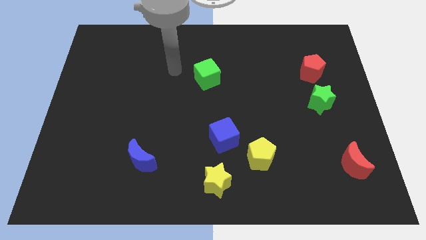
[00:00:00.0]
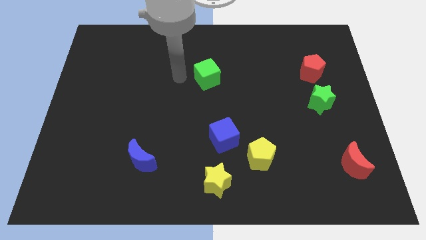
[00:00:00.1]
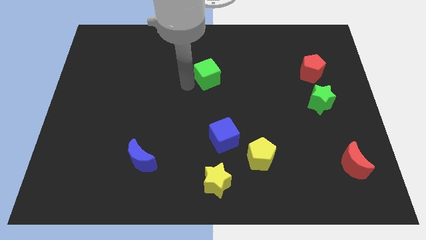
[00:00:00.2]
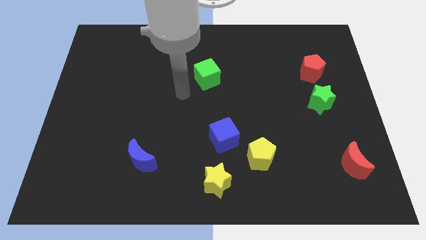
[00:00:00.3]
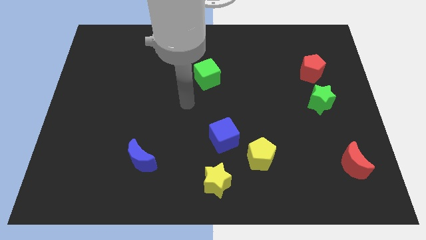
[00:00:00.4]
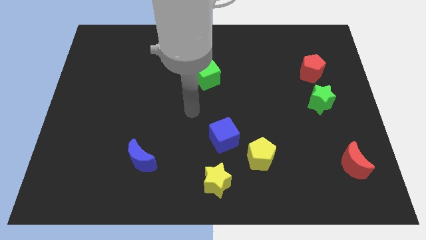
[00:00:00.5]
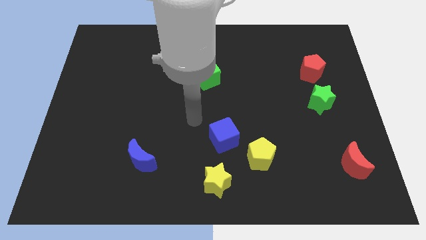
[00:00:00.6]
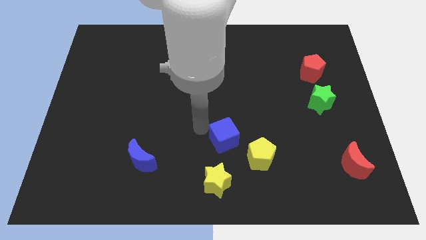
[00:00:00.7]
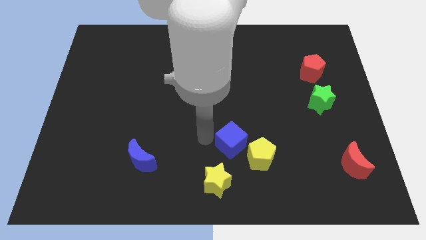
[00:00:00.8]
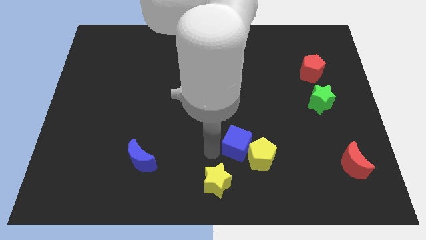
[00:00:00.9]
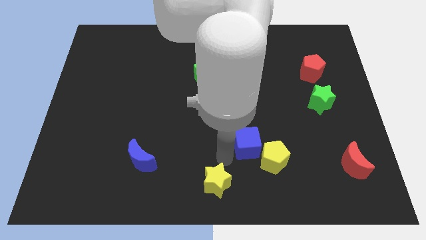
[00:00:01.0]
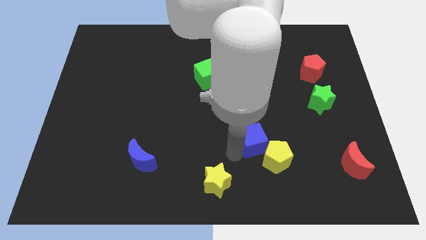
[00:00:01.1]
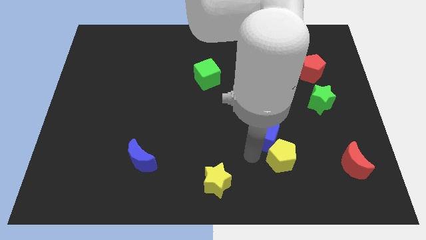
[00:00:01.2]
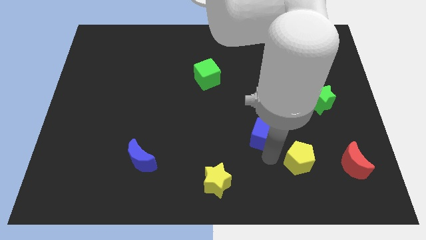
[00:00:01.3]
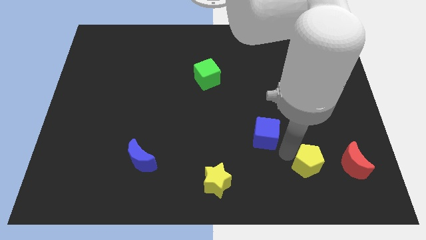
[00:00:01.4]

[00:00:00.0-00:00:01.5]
pull the blue cube apart from the yellow pentagon

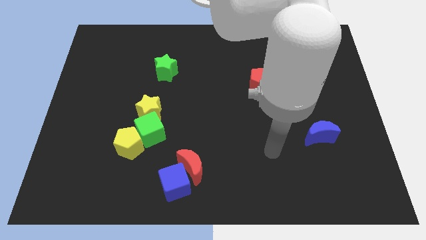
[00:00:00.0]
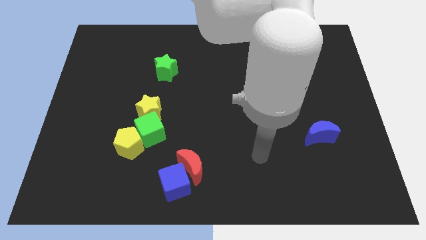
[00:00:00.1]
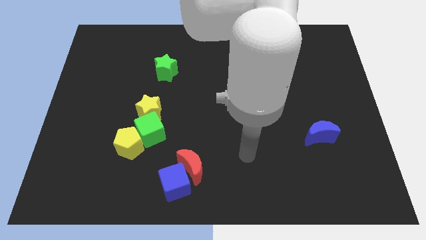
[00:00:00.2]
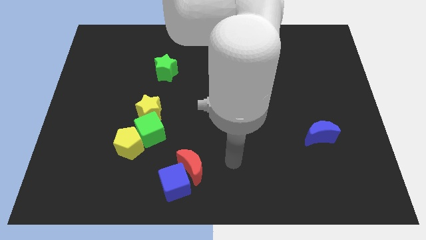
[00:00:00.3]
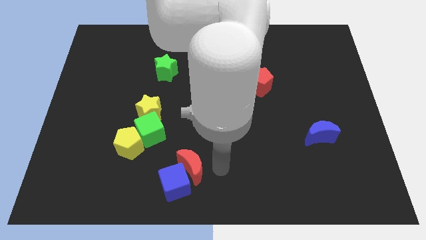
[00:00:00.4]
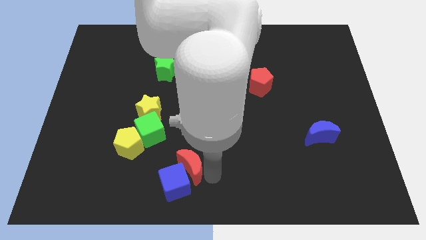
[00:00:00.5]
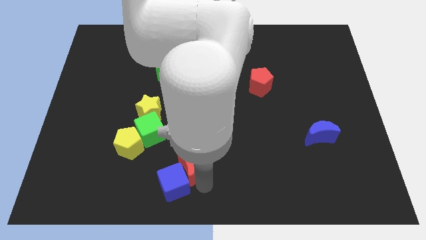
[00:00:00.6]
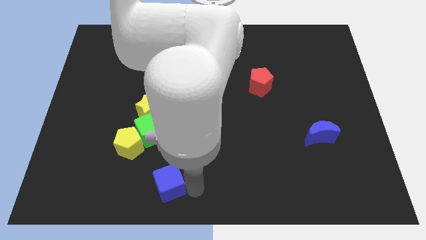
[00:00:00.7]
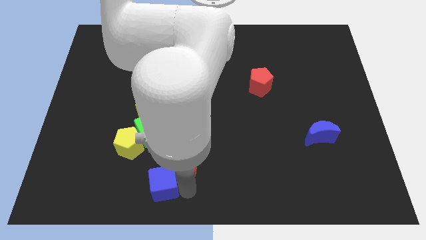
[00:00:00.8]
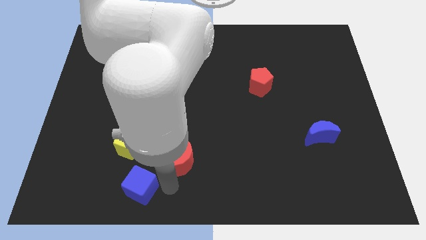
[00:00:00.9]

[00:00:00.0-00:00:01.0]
move the red moon away from the blue cube

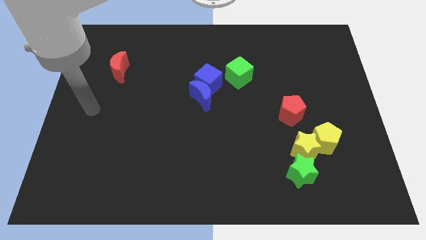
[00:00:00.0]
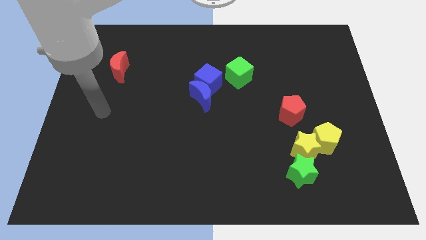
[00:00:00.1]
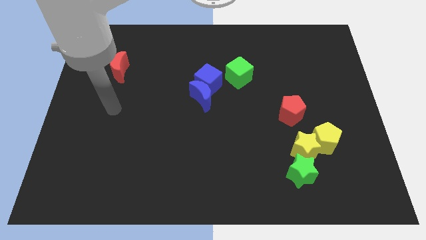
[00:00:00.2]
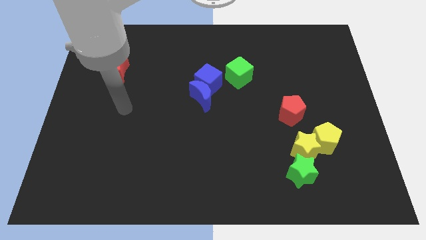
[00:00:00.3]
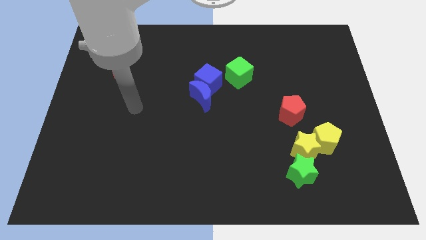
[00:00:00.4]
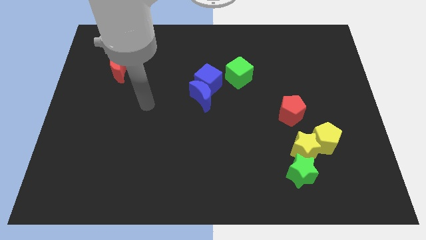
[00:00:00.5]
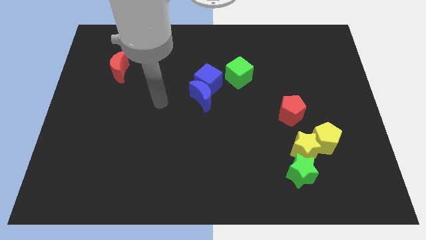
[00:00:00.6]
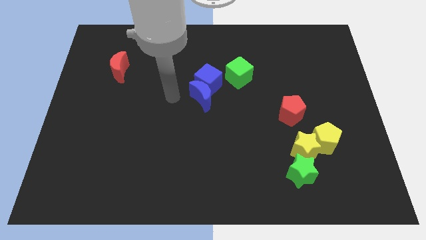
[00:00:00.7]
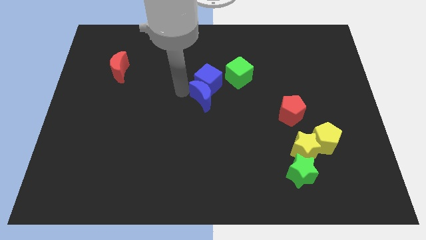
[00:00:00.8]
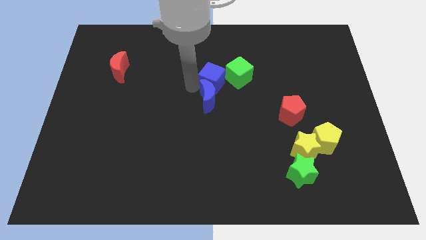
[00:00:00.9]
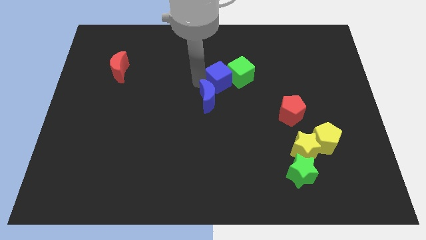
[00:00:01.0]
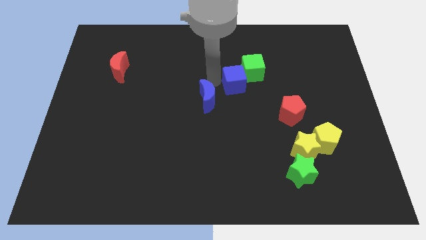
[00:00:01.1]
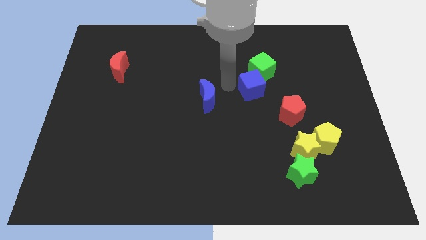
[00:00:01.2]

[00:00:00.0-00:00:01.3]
separate the blue moon from the blue cube

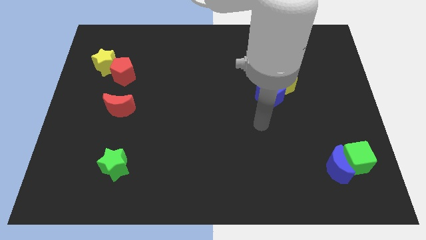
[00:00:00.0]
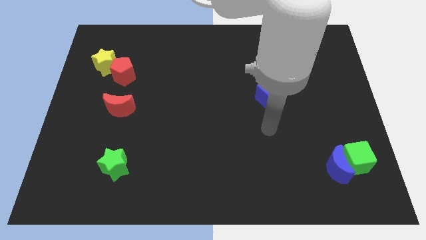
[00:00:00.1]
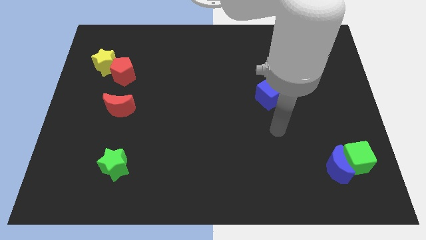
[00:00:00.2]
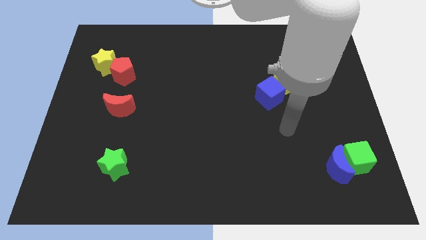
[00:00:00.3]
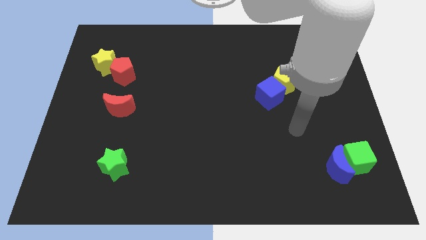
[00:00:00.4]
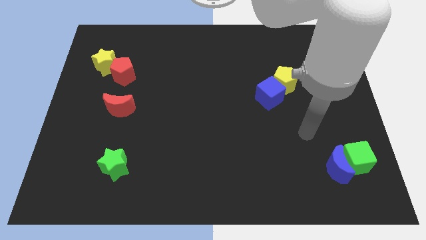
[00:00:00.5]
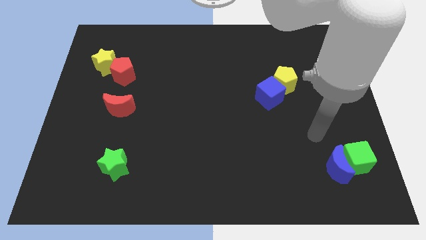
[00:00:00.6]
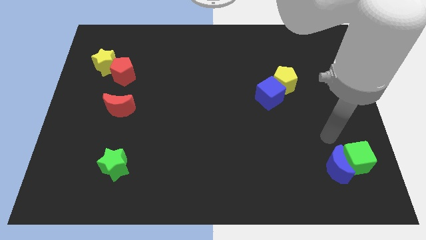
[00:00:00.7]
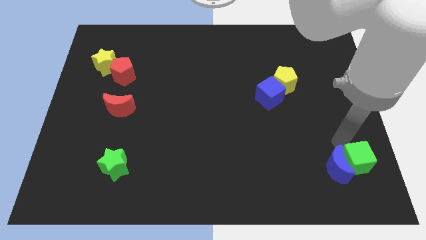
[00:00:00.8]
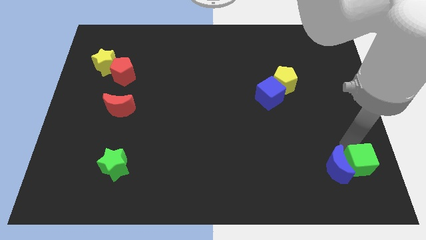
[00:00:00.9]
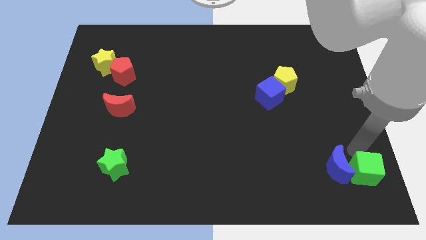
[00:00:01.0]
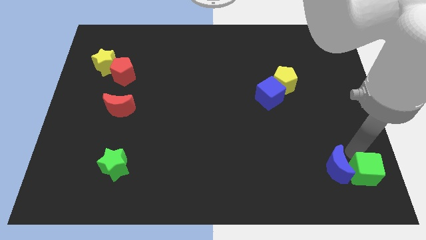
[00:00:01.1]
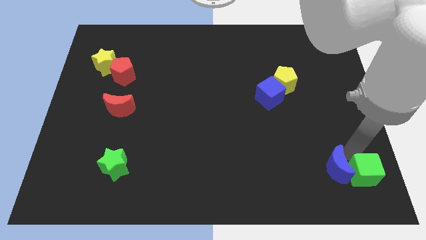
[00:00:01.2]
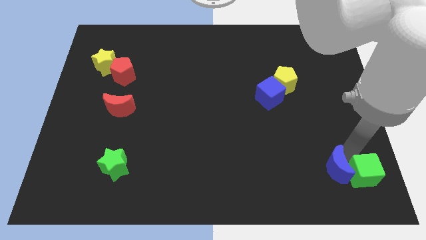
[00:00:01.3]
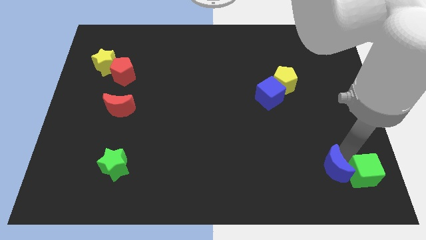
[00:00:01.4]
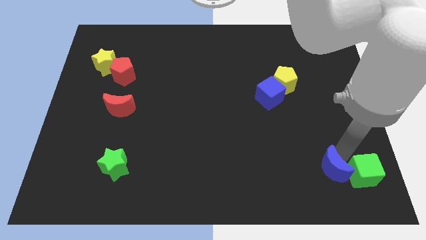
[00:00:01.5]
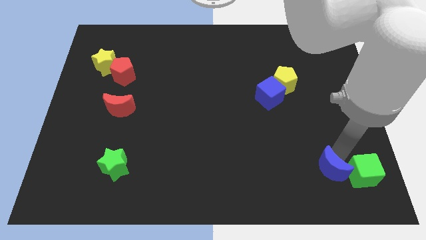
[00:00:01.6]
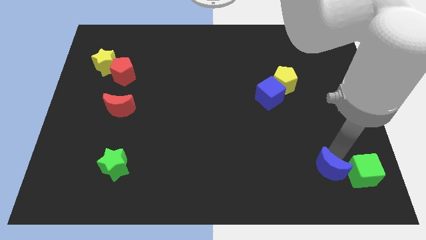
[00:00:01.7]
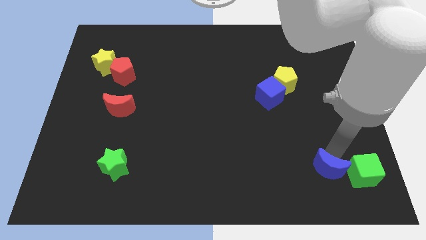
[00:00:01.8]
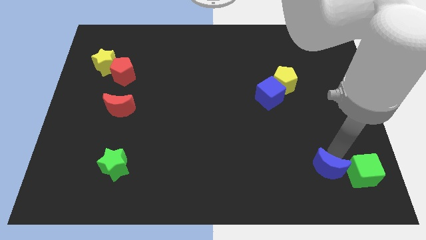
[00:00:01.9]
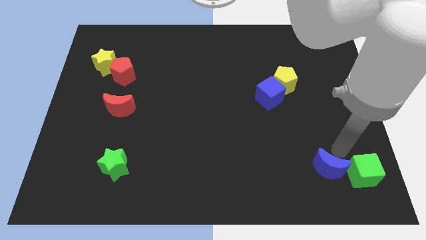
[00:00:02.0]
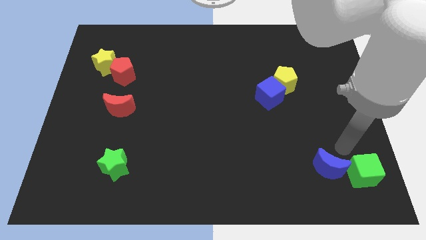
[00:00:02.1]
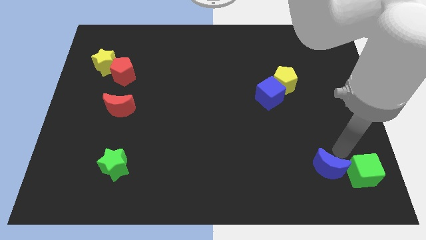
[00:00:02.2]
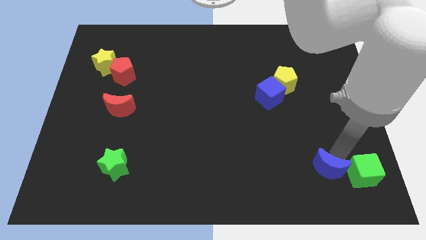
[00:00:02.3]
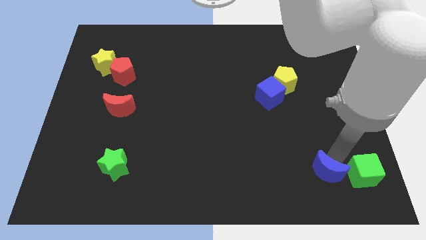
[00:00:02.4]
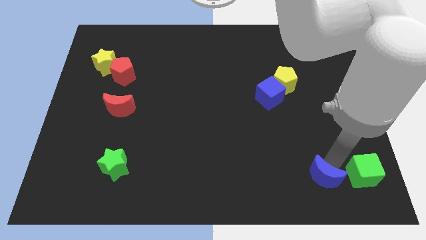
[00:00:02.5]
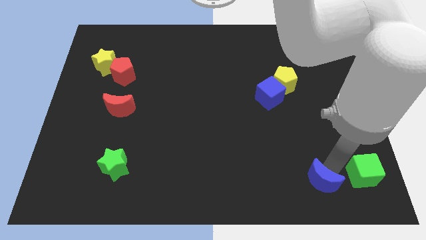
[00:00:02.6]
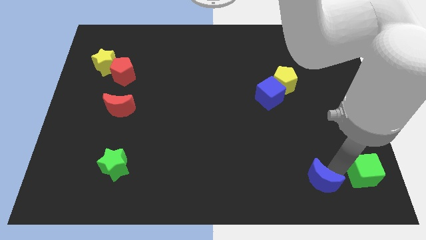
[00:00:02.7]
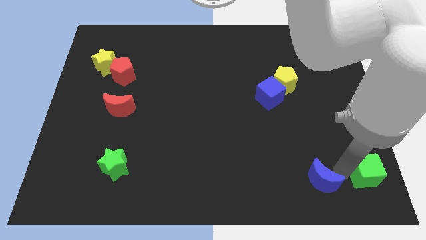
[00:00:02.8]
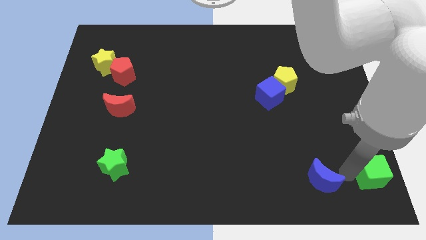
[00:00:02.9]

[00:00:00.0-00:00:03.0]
separate the blue moon from the green cube

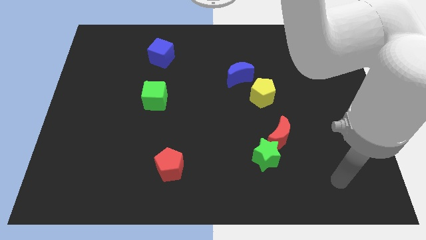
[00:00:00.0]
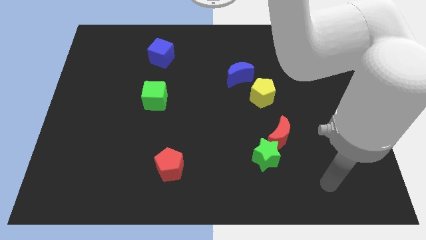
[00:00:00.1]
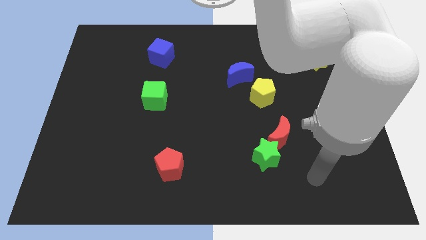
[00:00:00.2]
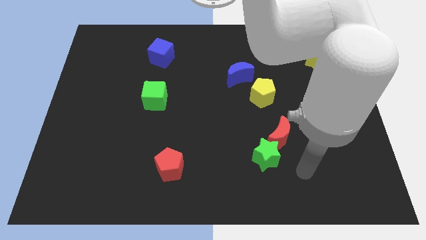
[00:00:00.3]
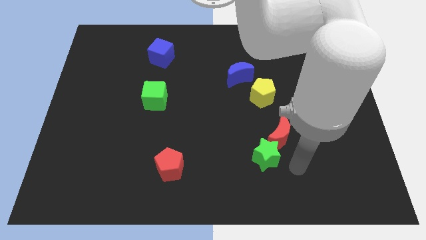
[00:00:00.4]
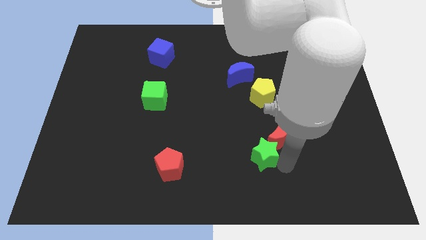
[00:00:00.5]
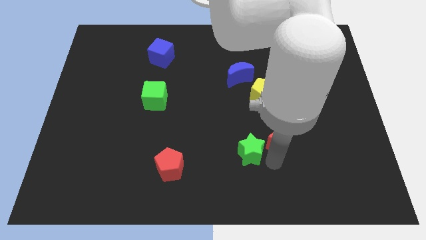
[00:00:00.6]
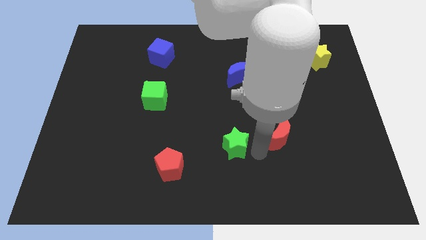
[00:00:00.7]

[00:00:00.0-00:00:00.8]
move the red moon away from the green star

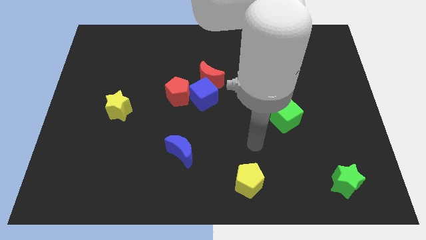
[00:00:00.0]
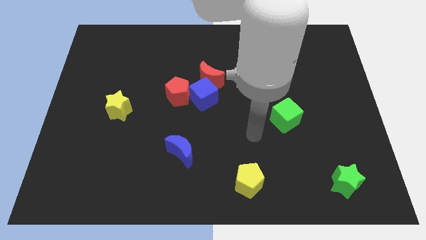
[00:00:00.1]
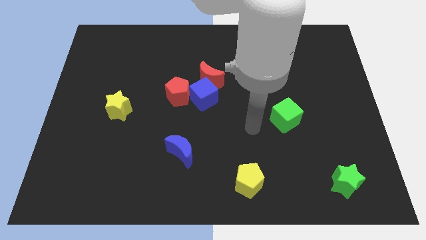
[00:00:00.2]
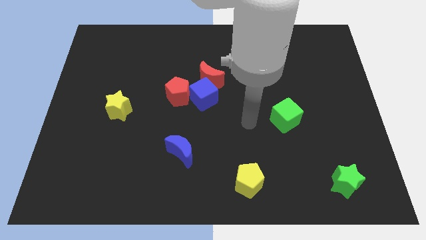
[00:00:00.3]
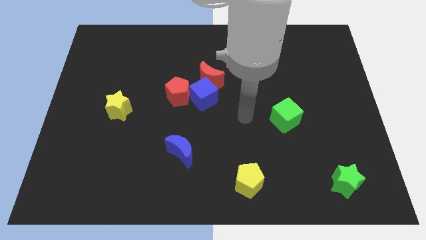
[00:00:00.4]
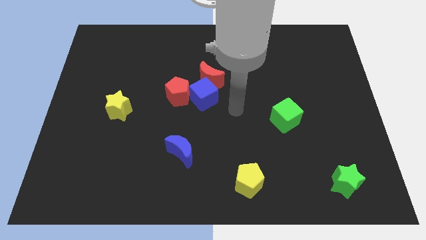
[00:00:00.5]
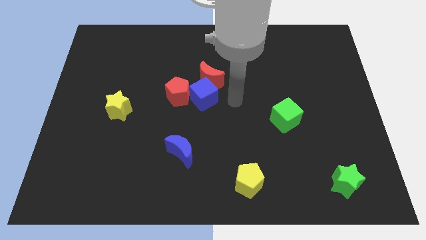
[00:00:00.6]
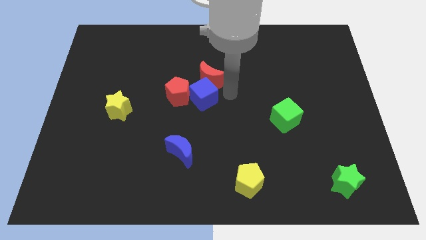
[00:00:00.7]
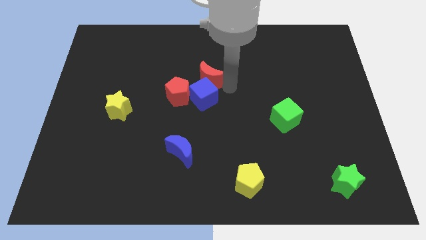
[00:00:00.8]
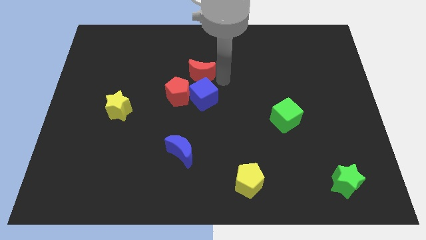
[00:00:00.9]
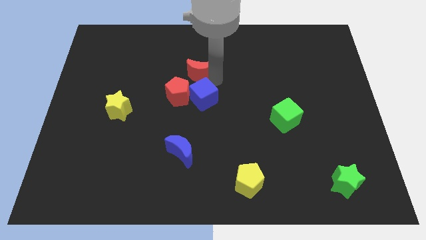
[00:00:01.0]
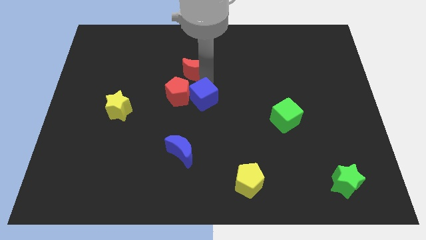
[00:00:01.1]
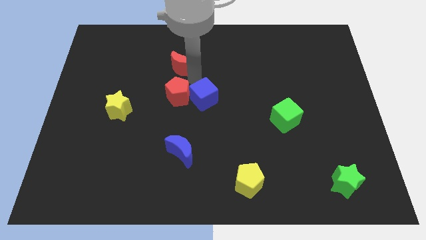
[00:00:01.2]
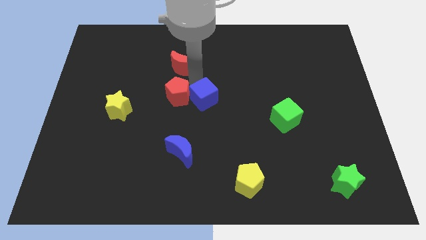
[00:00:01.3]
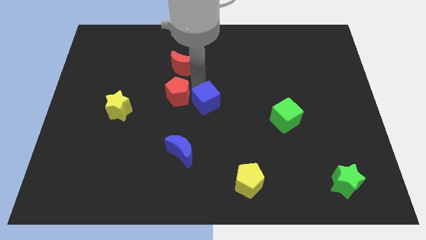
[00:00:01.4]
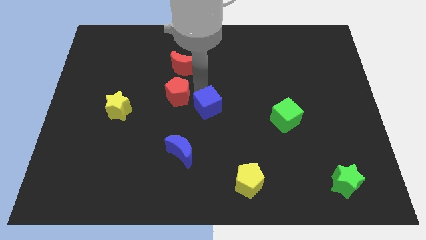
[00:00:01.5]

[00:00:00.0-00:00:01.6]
pull the blue cube apart from the red moon and red pentagon
